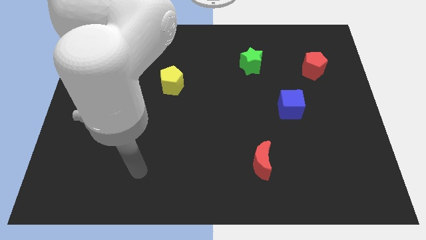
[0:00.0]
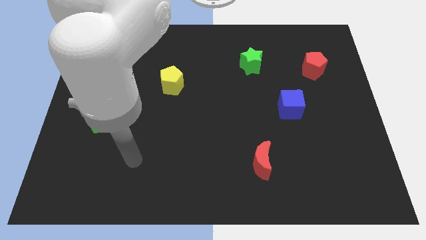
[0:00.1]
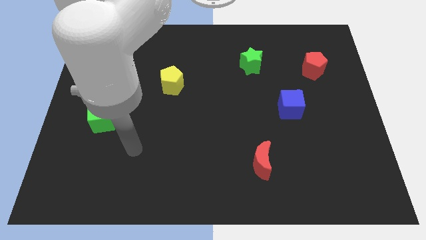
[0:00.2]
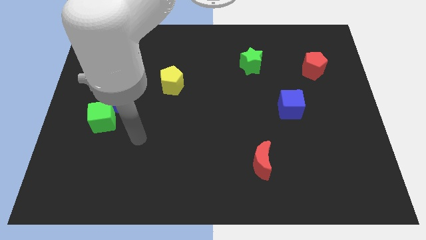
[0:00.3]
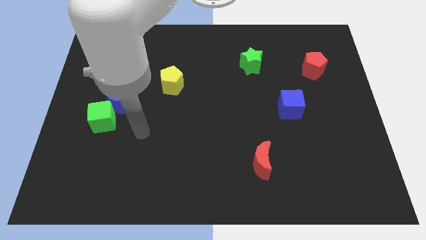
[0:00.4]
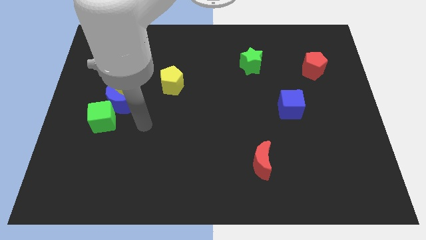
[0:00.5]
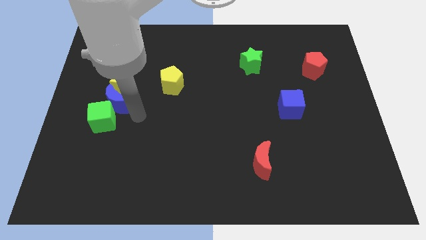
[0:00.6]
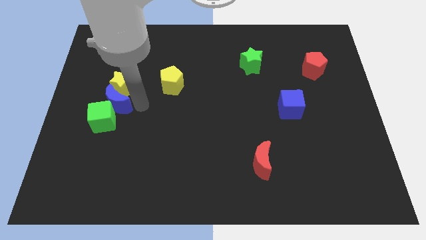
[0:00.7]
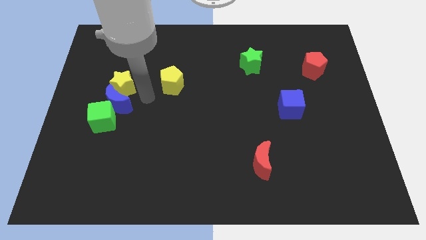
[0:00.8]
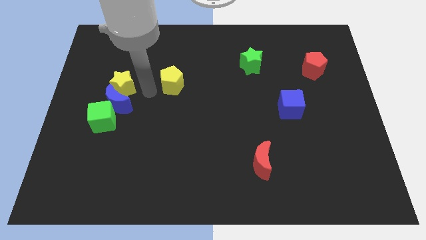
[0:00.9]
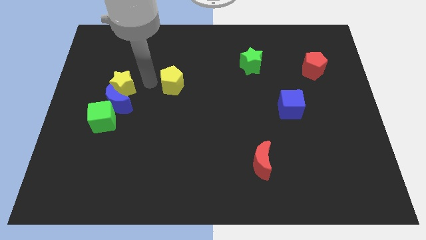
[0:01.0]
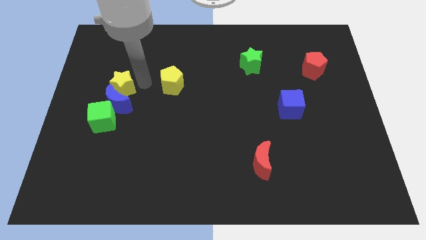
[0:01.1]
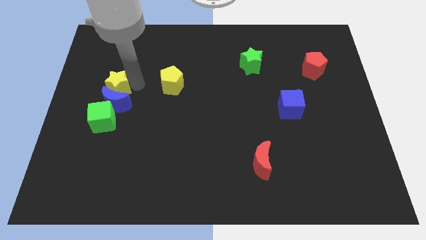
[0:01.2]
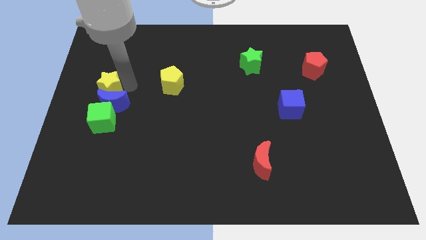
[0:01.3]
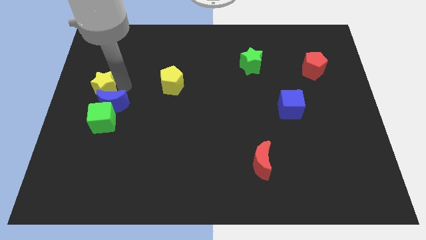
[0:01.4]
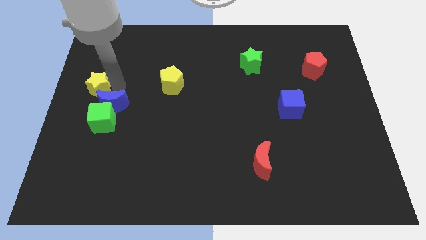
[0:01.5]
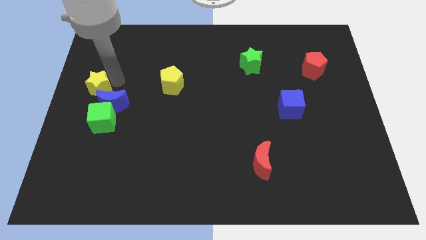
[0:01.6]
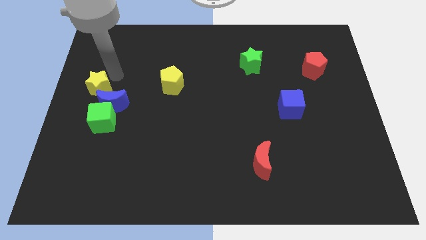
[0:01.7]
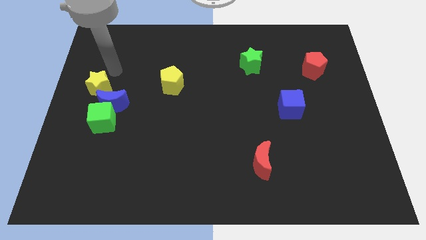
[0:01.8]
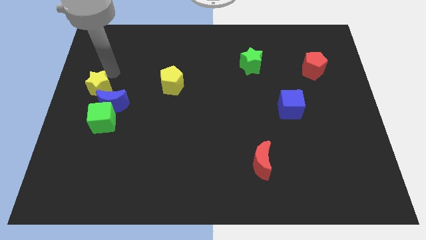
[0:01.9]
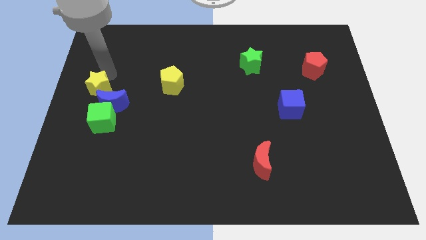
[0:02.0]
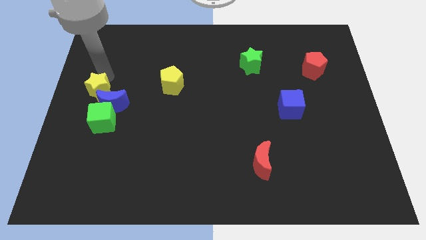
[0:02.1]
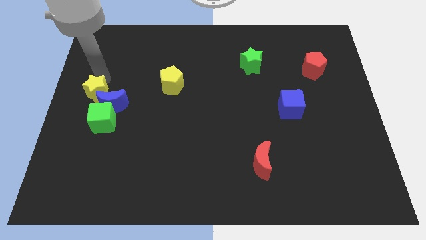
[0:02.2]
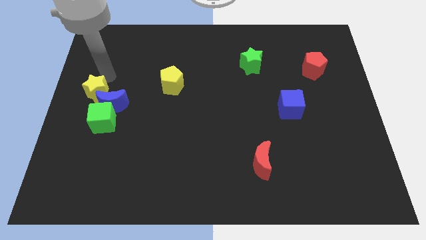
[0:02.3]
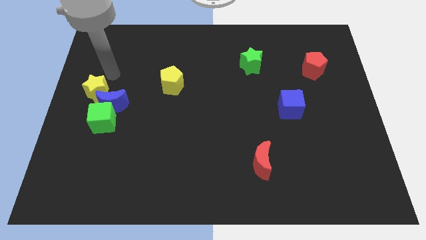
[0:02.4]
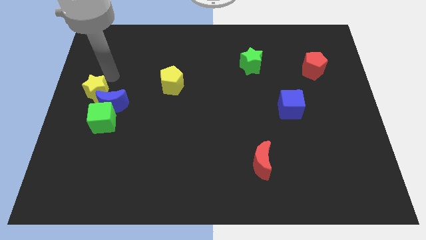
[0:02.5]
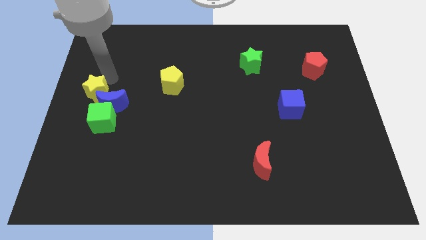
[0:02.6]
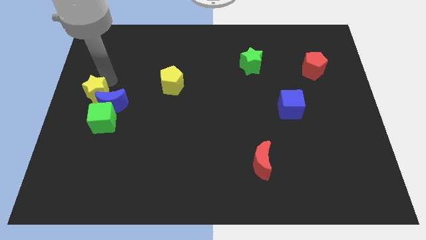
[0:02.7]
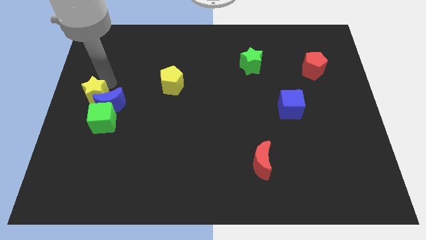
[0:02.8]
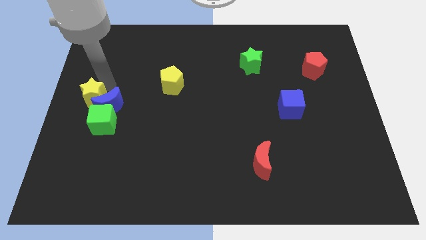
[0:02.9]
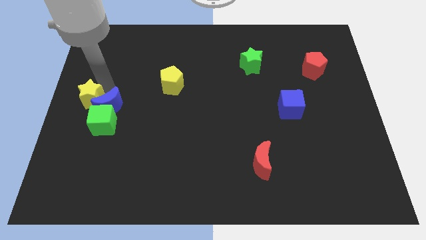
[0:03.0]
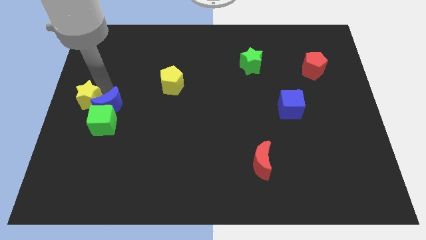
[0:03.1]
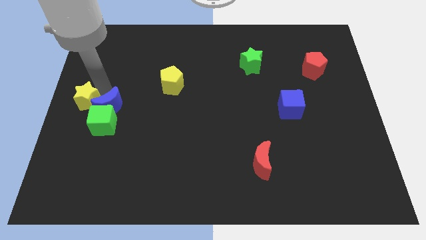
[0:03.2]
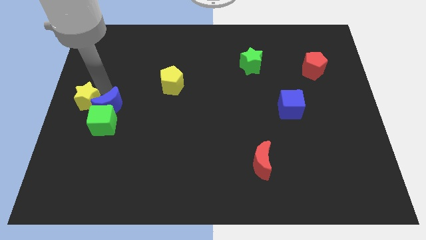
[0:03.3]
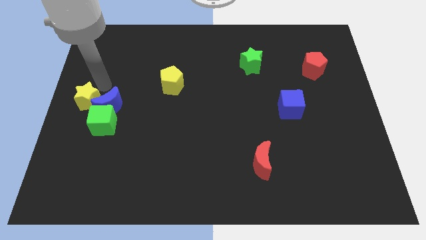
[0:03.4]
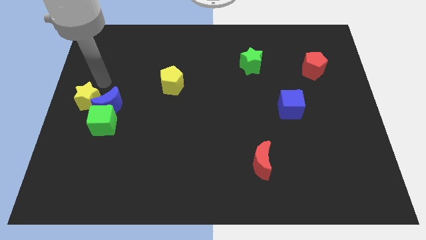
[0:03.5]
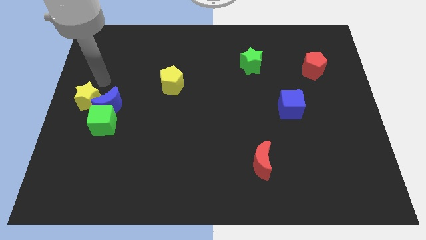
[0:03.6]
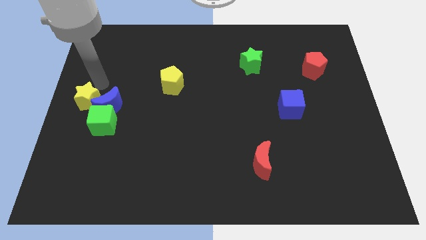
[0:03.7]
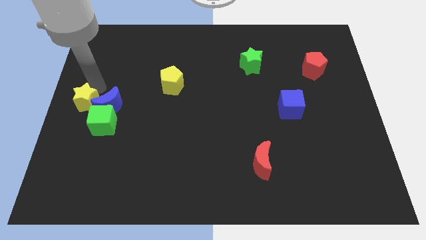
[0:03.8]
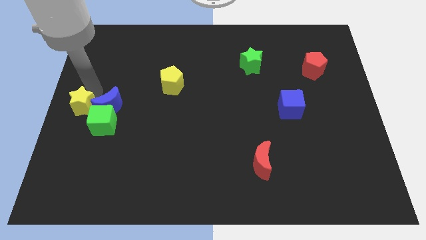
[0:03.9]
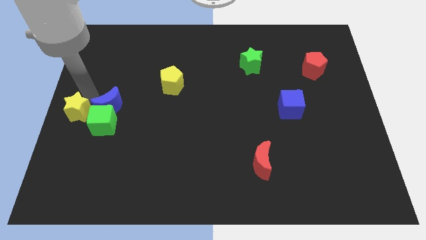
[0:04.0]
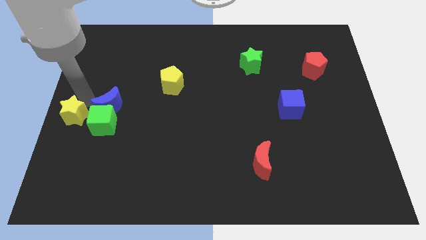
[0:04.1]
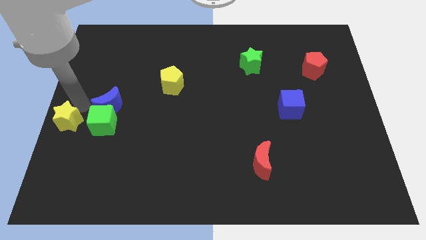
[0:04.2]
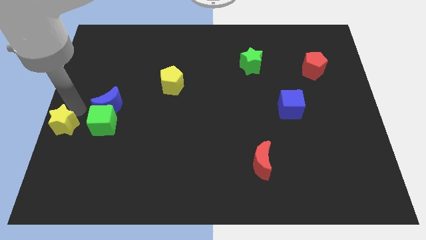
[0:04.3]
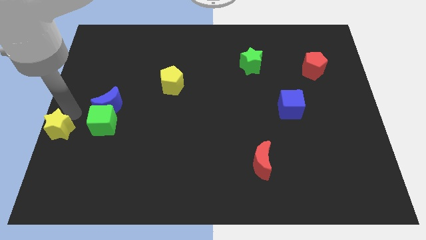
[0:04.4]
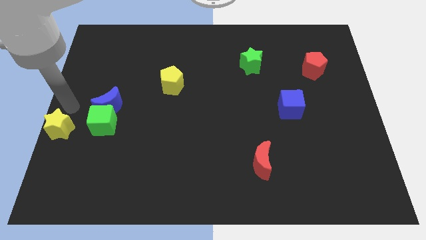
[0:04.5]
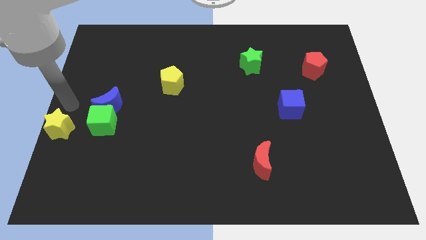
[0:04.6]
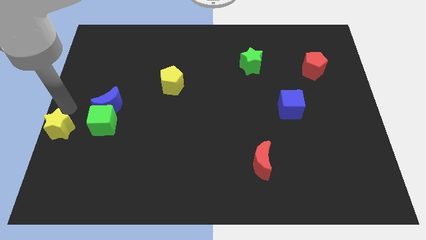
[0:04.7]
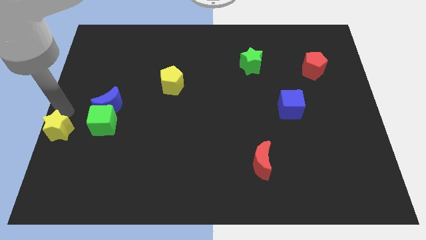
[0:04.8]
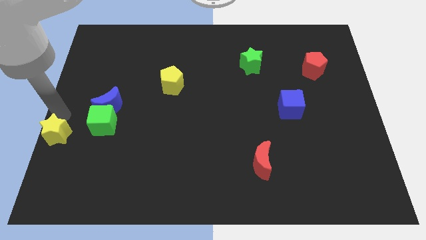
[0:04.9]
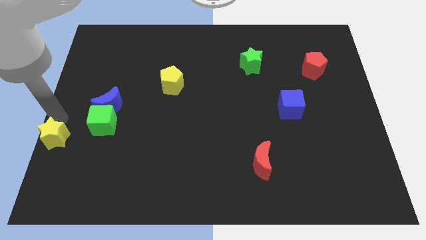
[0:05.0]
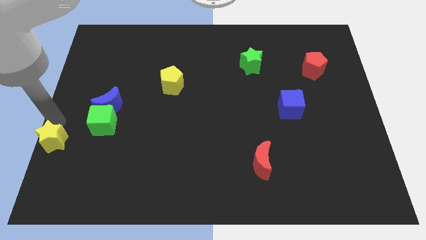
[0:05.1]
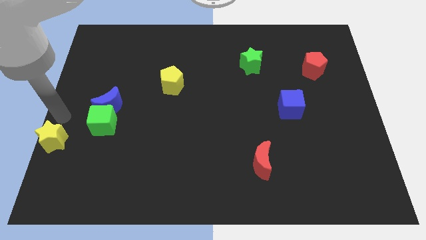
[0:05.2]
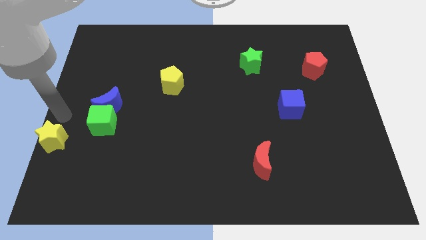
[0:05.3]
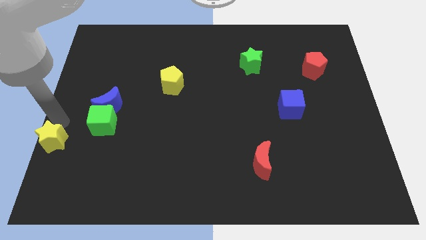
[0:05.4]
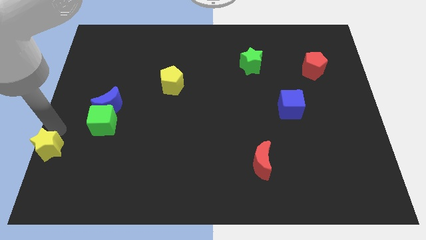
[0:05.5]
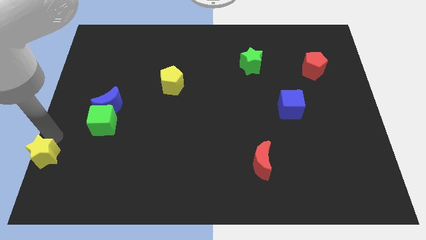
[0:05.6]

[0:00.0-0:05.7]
move the yellow star to the bottom left corner
